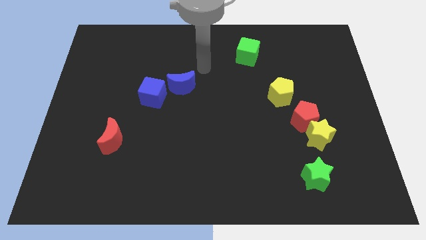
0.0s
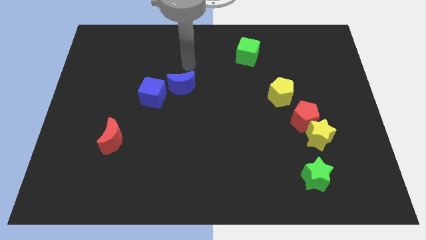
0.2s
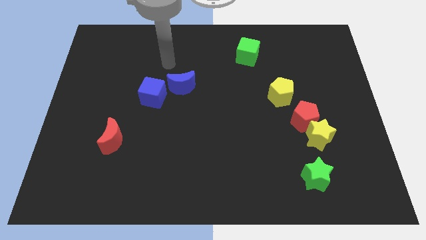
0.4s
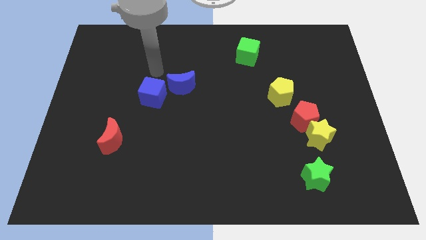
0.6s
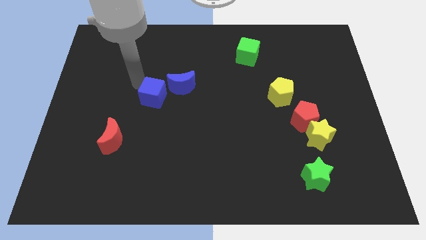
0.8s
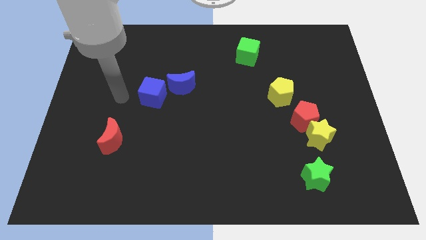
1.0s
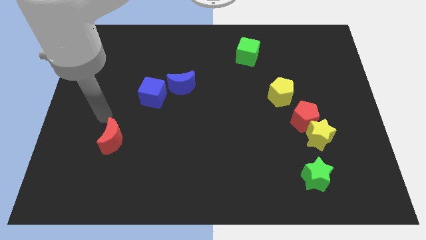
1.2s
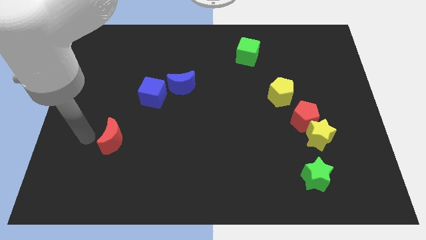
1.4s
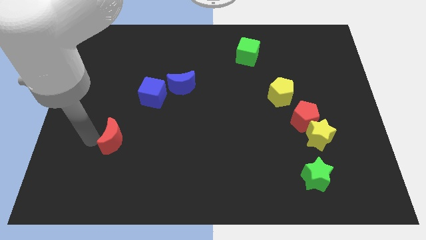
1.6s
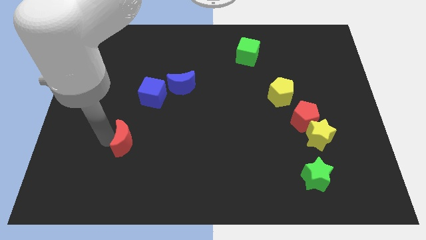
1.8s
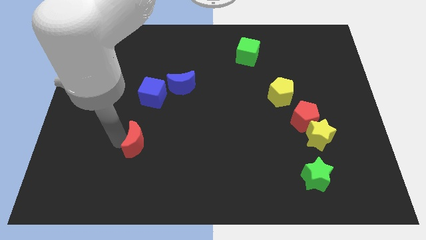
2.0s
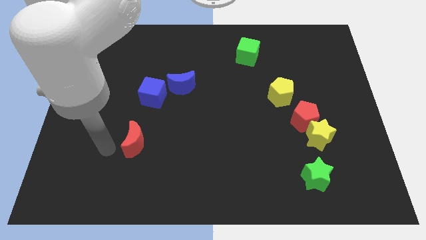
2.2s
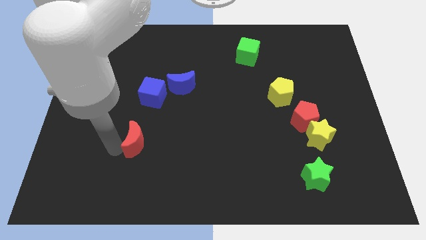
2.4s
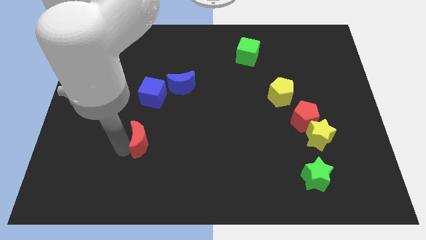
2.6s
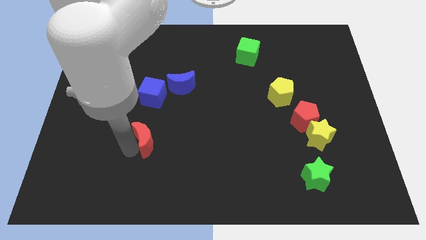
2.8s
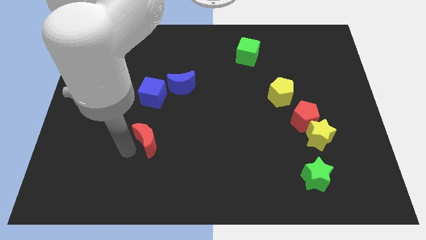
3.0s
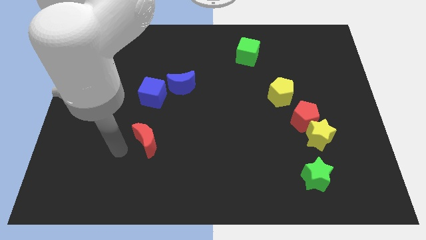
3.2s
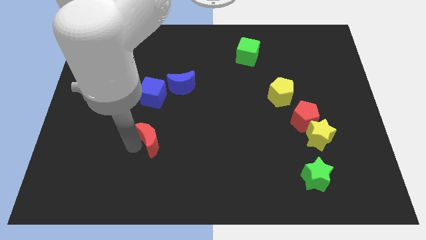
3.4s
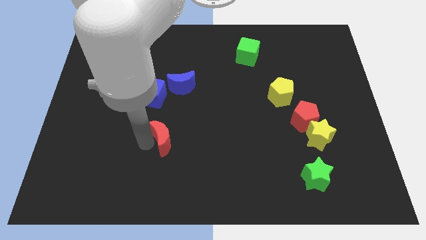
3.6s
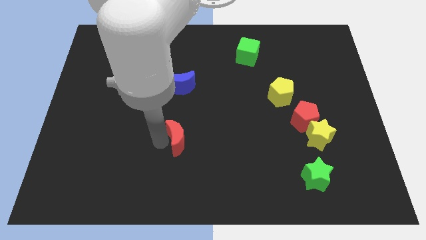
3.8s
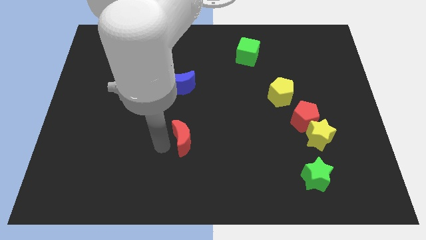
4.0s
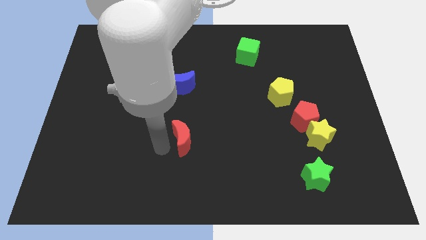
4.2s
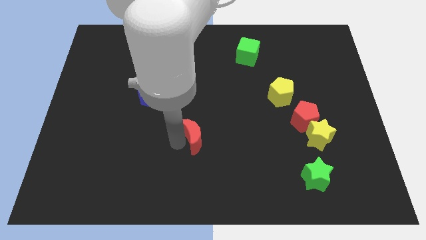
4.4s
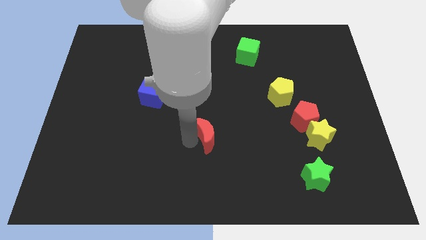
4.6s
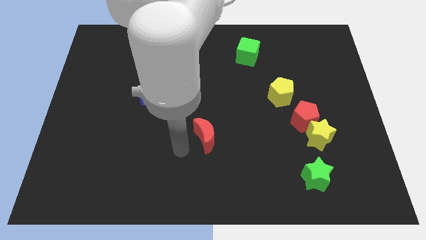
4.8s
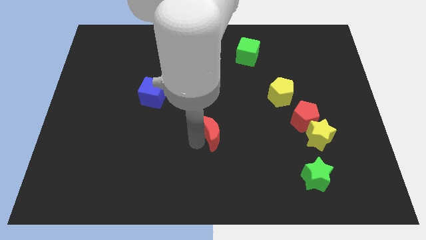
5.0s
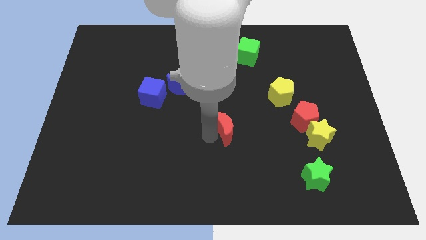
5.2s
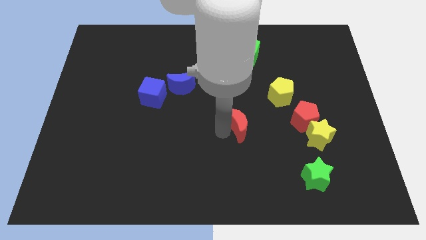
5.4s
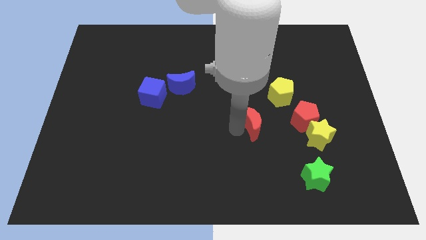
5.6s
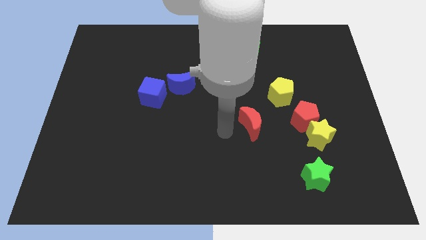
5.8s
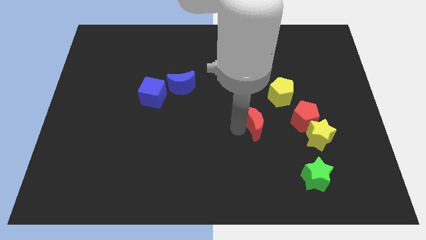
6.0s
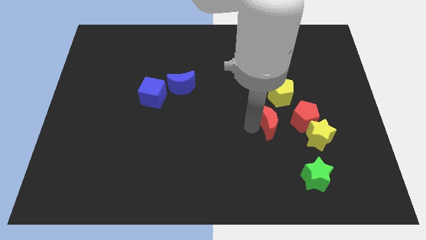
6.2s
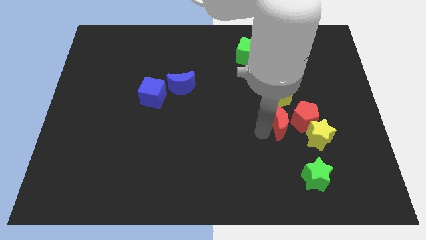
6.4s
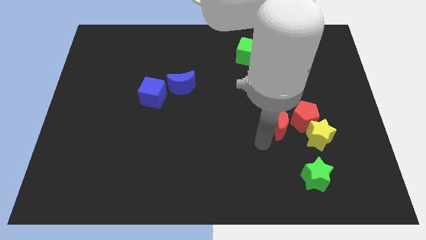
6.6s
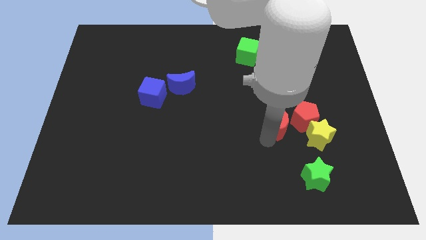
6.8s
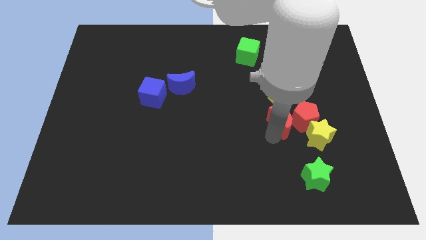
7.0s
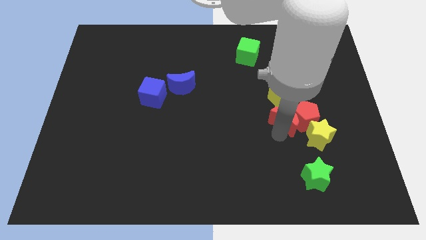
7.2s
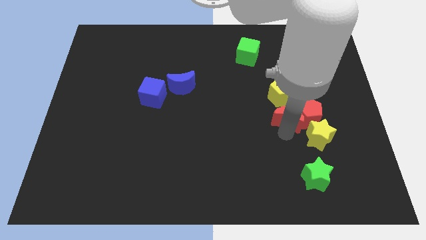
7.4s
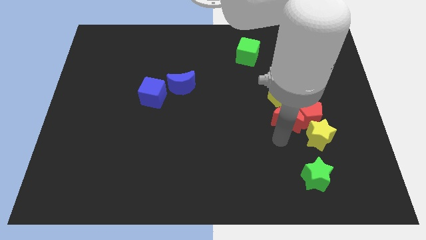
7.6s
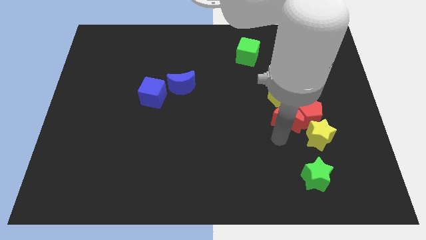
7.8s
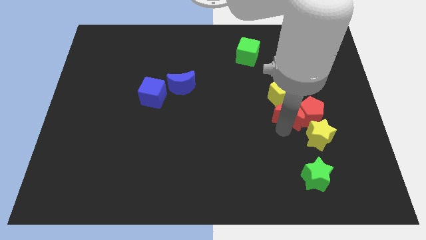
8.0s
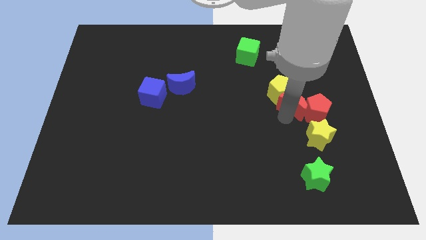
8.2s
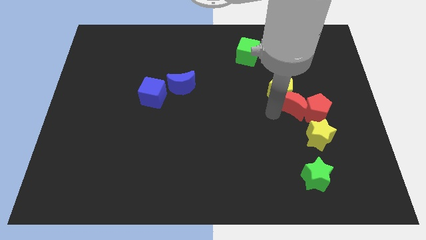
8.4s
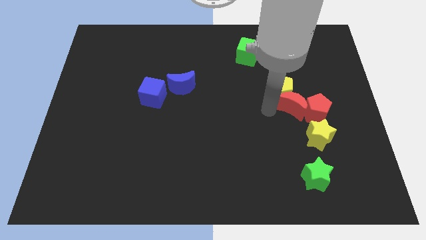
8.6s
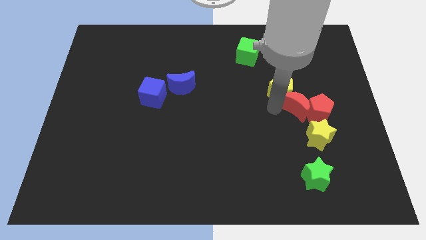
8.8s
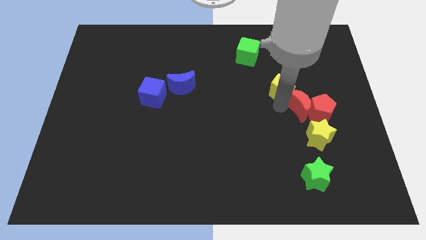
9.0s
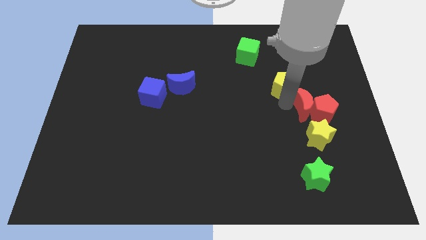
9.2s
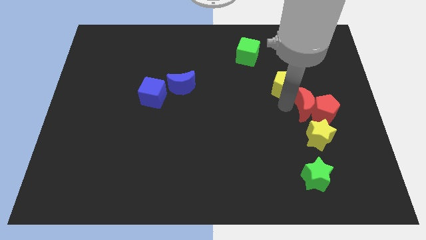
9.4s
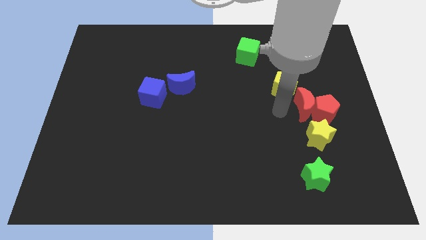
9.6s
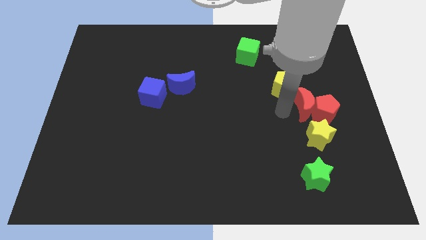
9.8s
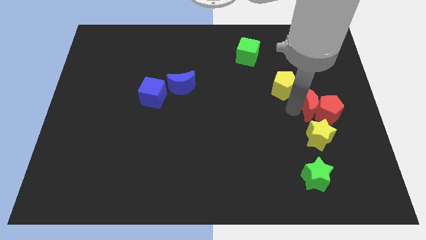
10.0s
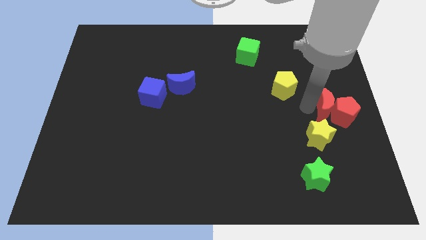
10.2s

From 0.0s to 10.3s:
slide the red moon to the center right

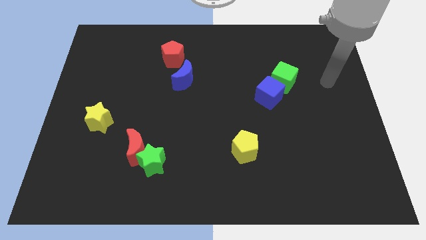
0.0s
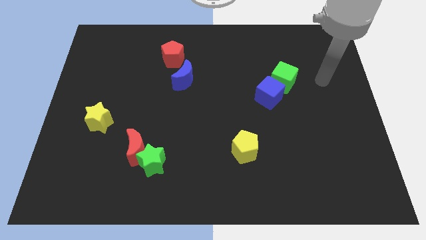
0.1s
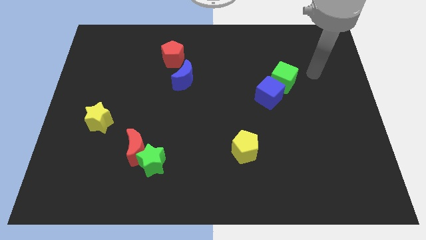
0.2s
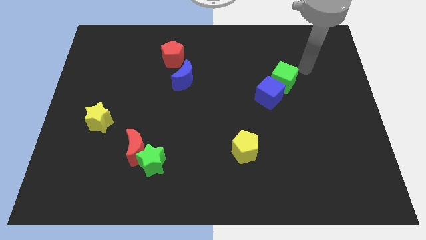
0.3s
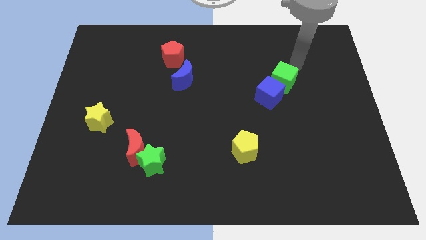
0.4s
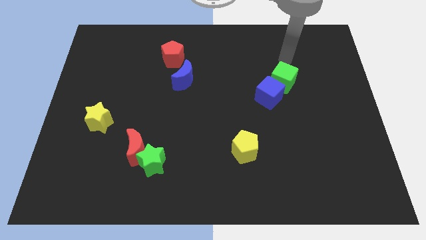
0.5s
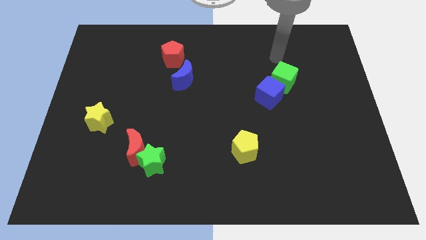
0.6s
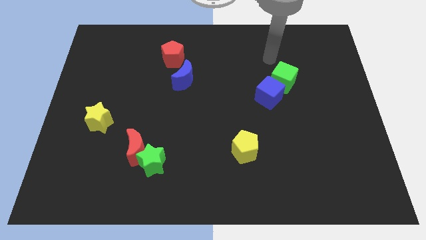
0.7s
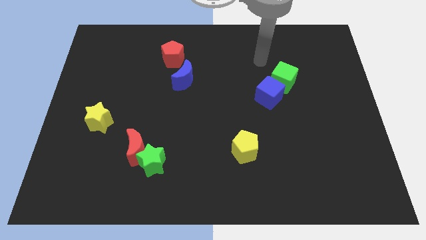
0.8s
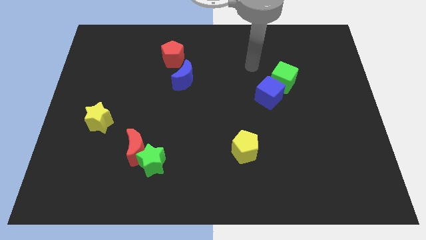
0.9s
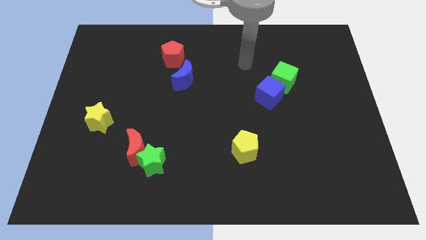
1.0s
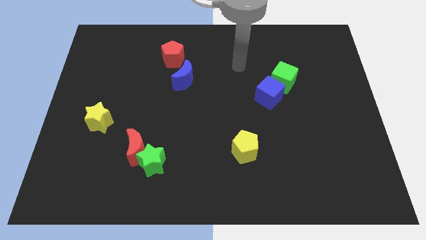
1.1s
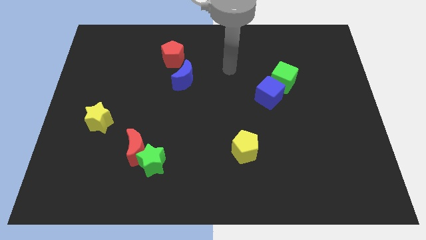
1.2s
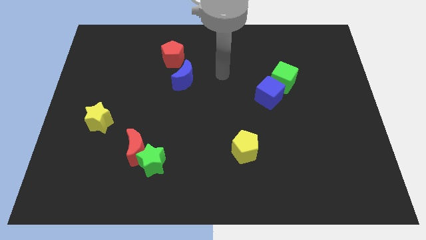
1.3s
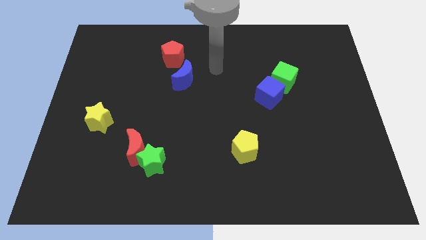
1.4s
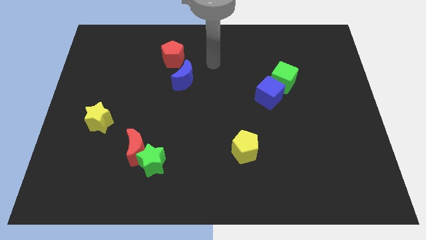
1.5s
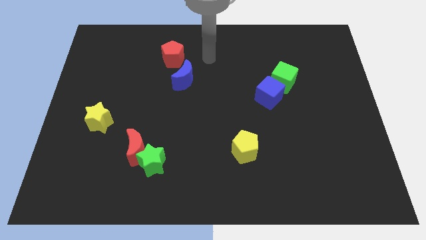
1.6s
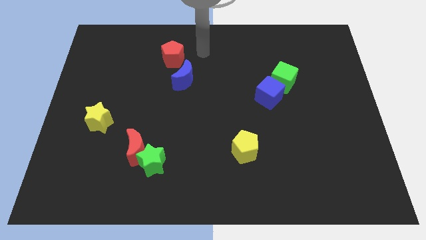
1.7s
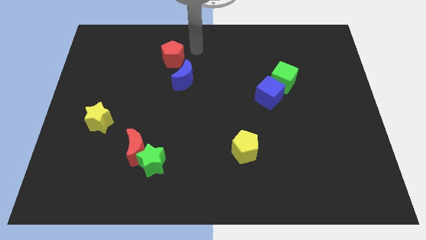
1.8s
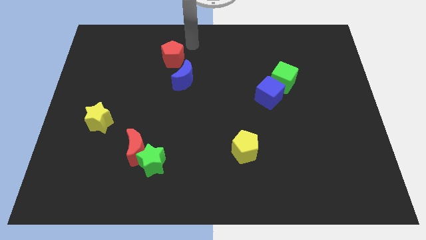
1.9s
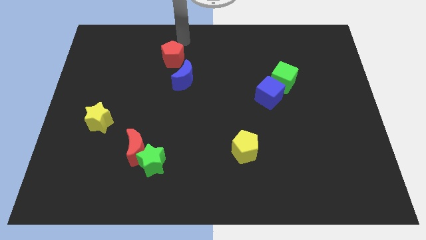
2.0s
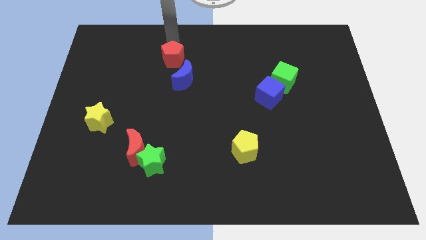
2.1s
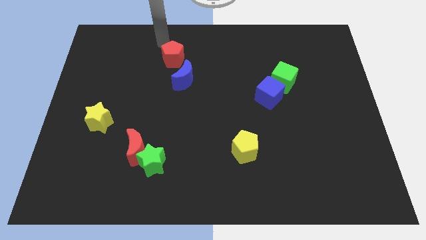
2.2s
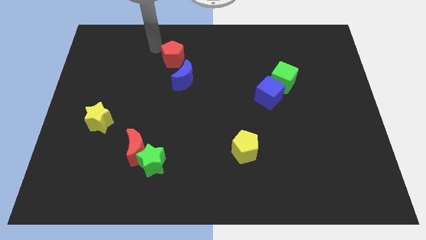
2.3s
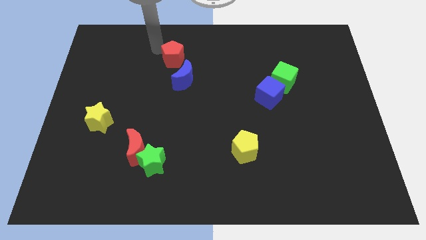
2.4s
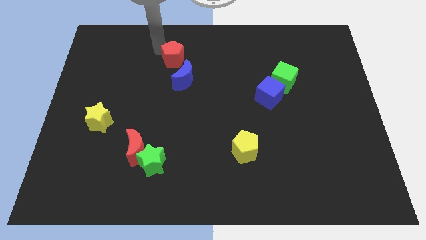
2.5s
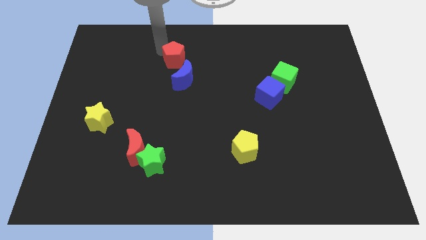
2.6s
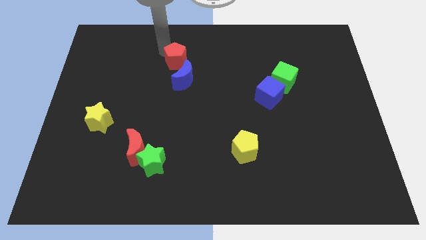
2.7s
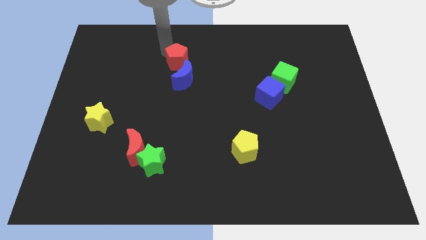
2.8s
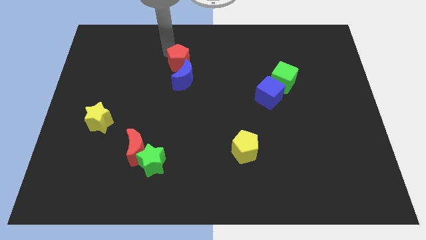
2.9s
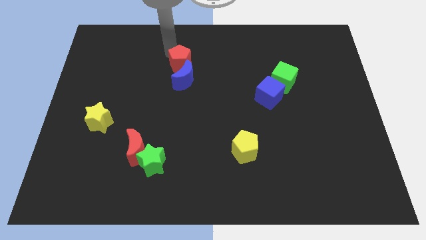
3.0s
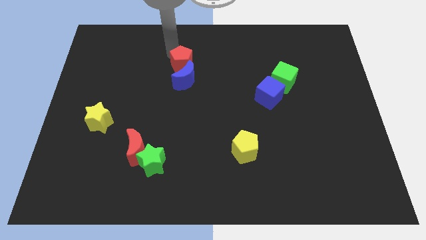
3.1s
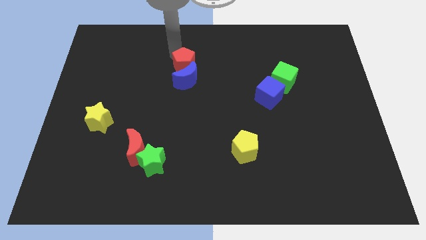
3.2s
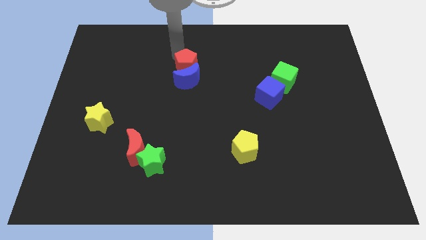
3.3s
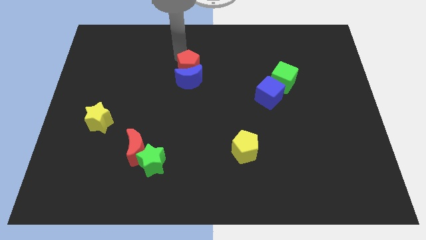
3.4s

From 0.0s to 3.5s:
slide the red pentagon to the middle
